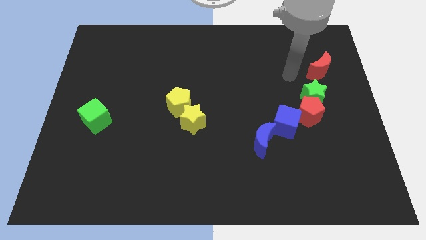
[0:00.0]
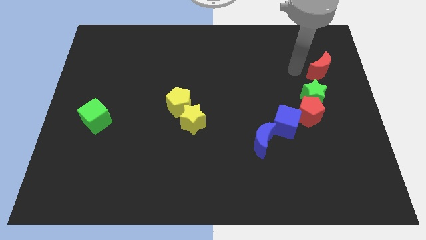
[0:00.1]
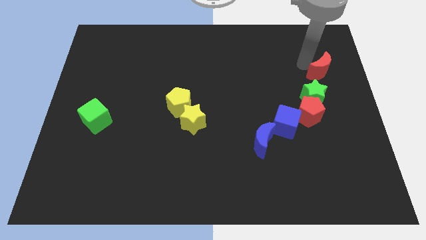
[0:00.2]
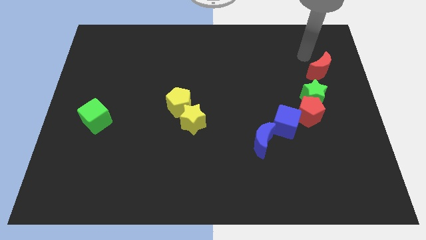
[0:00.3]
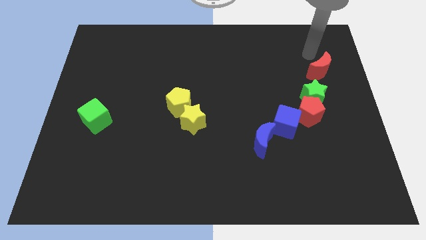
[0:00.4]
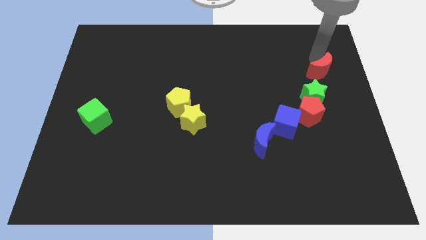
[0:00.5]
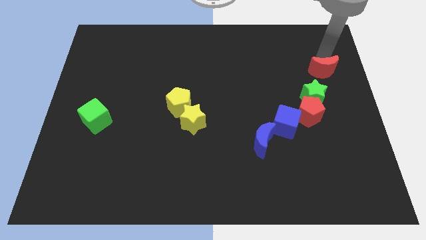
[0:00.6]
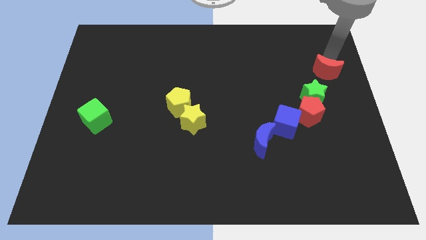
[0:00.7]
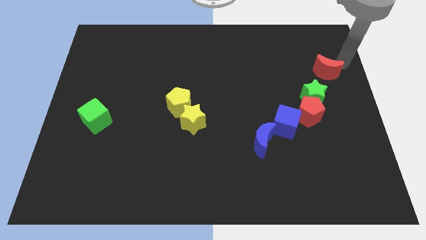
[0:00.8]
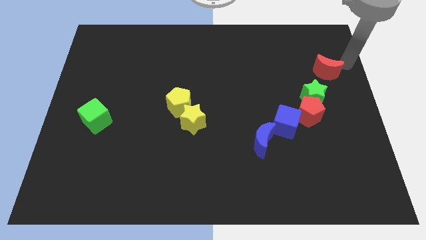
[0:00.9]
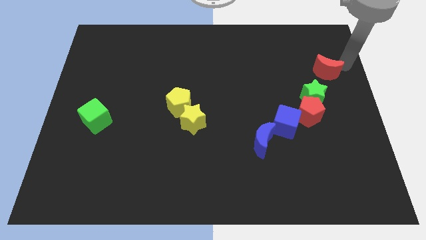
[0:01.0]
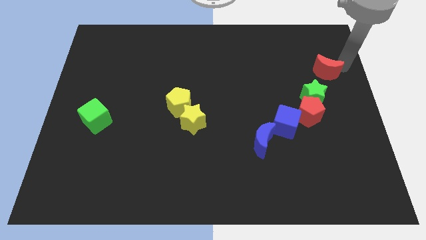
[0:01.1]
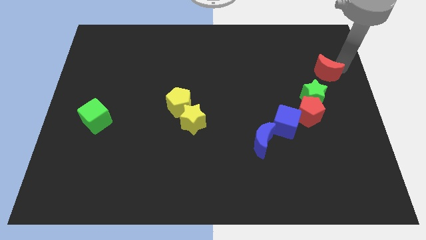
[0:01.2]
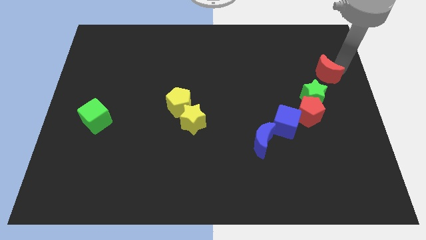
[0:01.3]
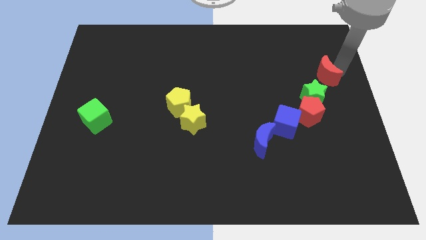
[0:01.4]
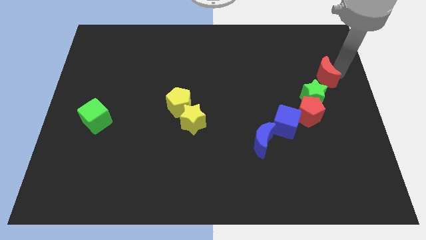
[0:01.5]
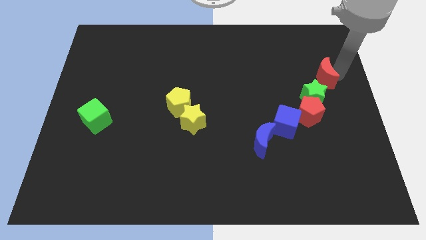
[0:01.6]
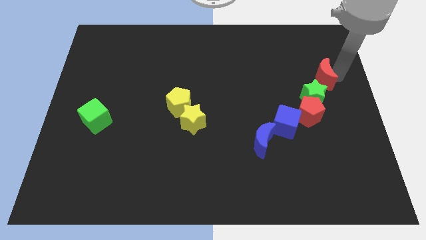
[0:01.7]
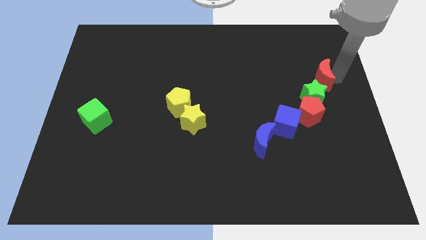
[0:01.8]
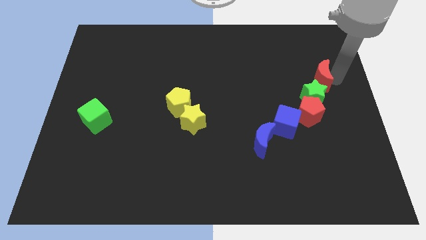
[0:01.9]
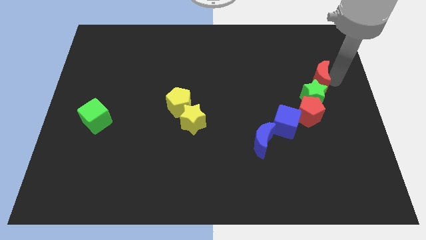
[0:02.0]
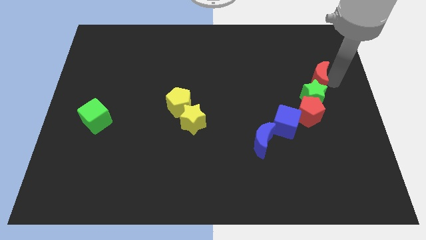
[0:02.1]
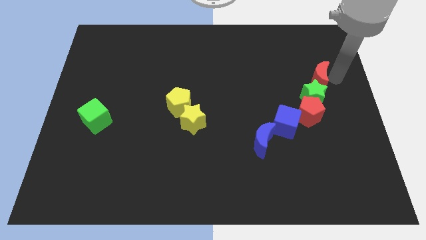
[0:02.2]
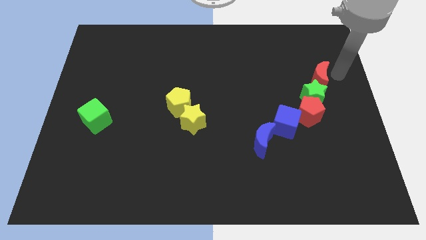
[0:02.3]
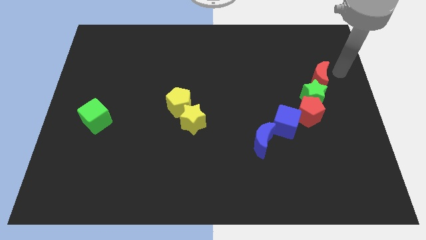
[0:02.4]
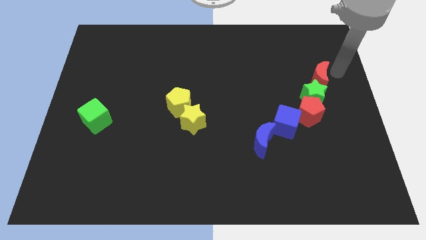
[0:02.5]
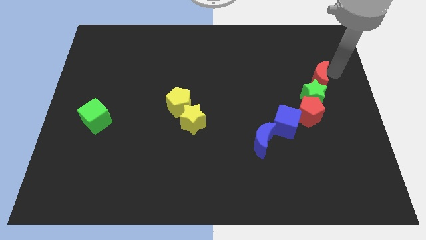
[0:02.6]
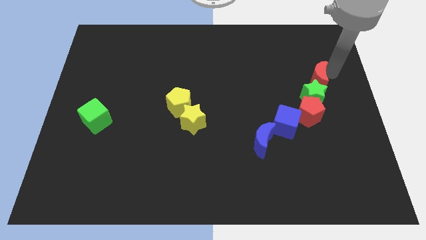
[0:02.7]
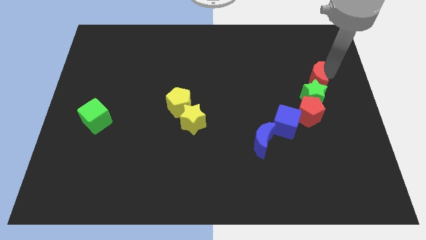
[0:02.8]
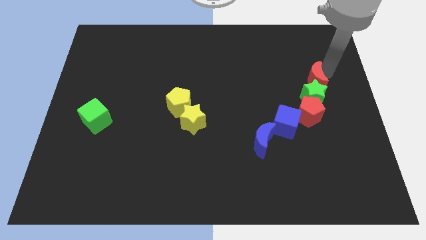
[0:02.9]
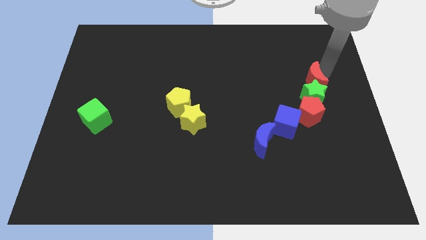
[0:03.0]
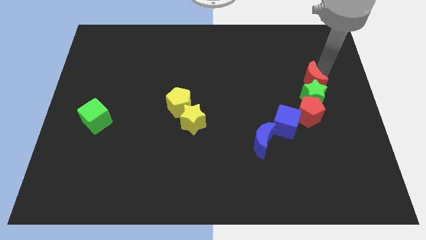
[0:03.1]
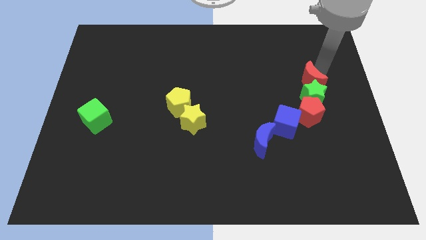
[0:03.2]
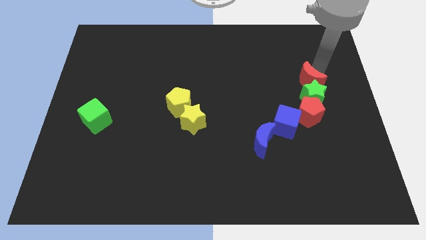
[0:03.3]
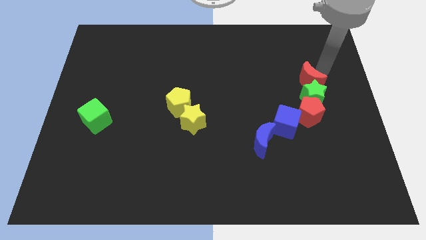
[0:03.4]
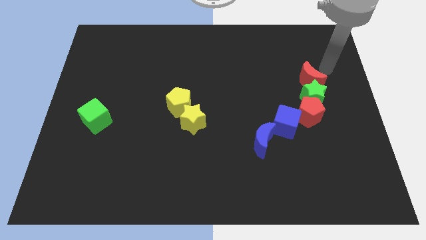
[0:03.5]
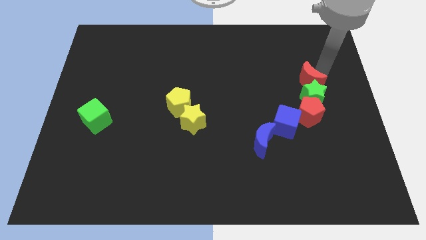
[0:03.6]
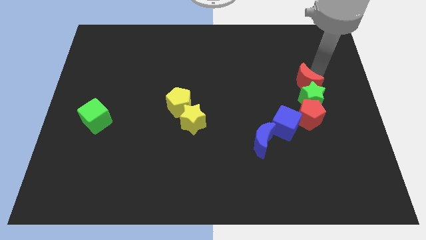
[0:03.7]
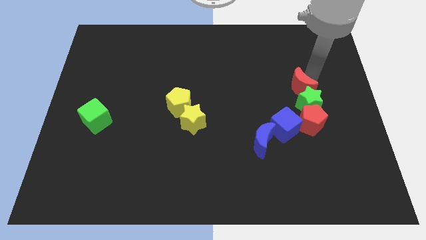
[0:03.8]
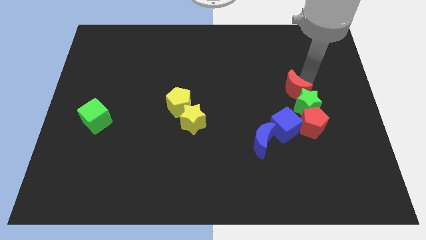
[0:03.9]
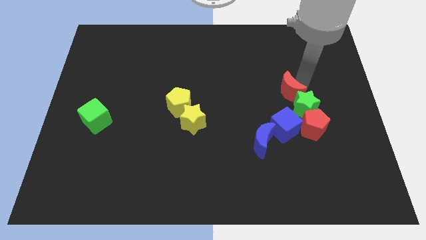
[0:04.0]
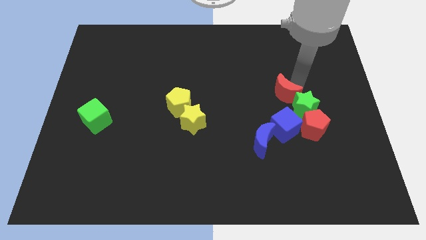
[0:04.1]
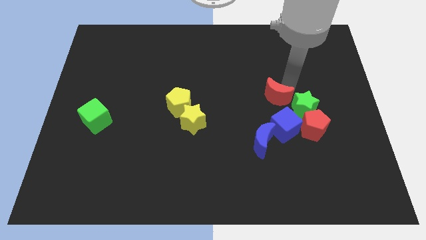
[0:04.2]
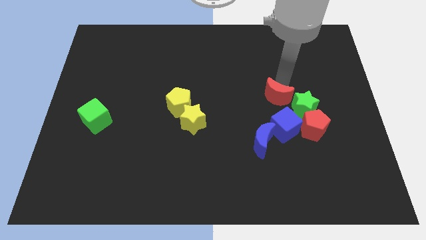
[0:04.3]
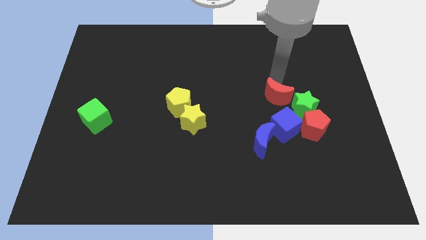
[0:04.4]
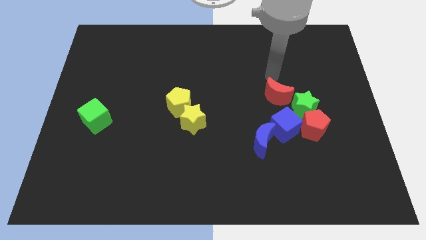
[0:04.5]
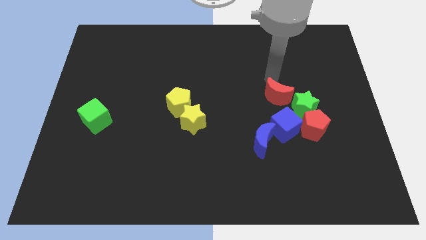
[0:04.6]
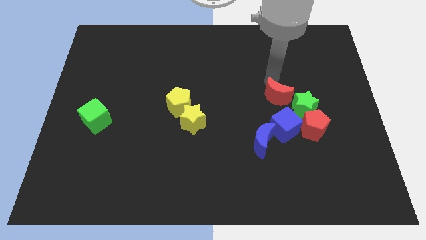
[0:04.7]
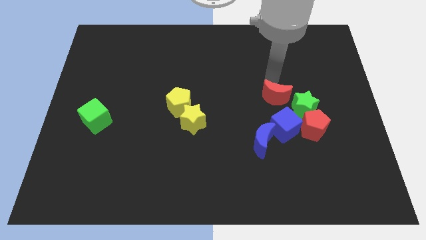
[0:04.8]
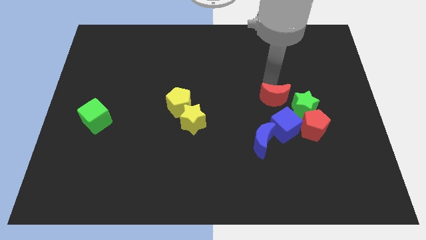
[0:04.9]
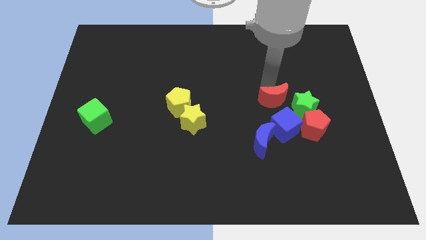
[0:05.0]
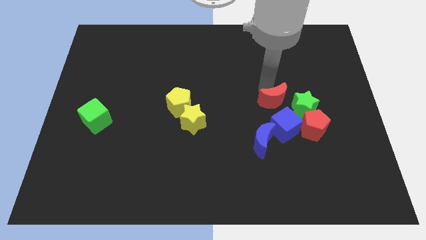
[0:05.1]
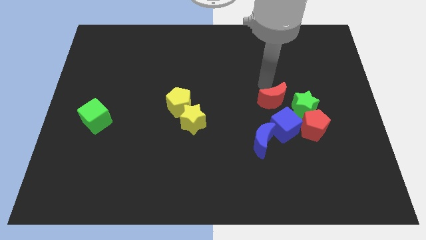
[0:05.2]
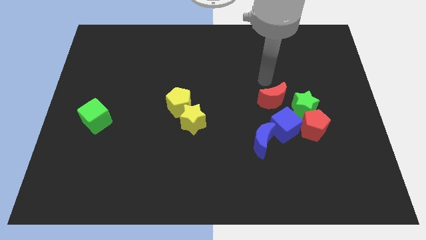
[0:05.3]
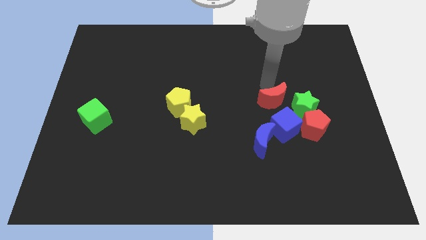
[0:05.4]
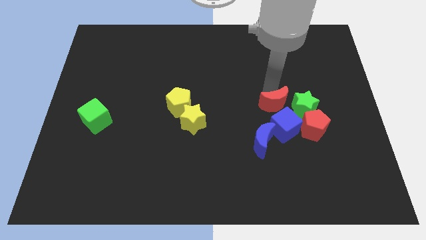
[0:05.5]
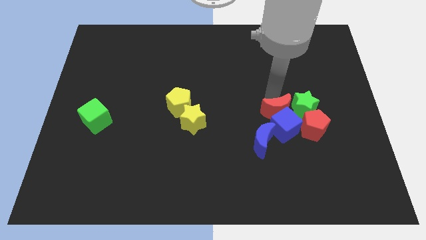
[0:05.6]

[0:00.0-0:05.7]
move the red moon next to the blue cube
